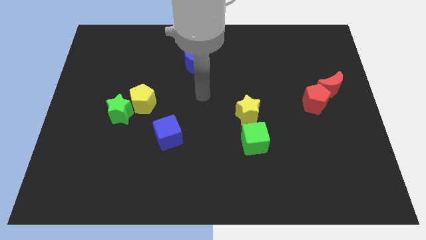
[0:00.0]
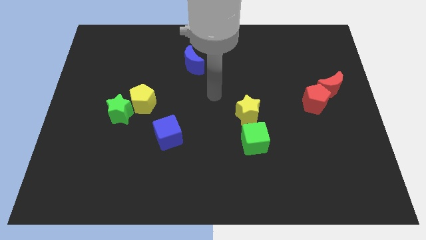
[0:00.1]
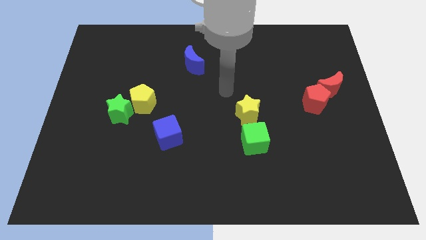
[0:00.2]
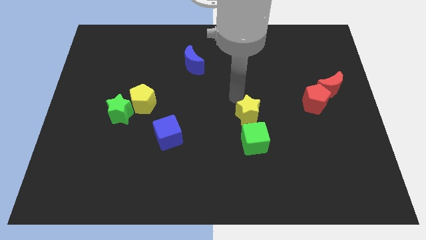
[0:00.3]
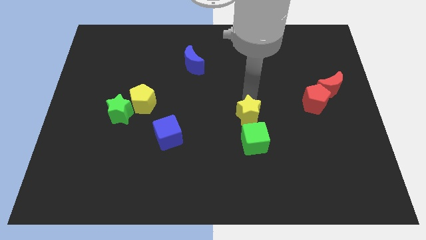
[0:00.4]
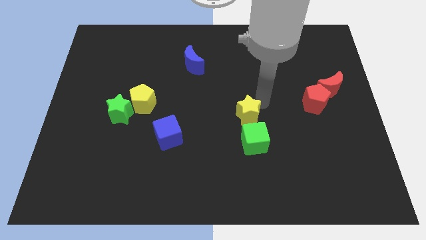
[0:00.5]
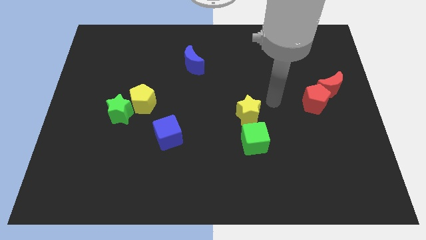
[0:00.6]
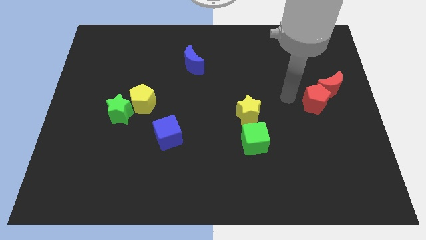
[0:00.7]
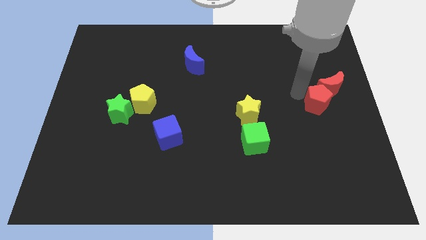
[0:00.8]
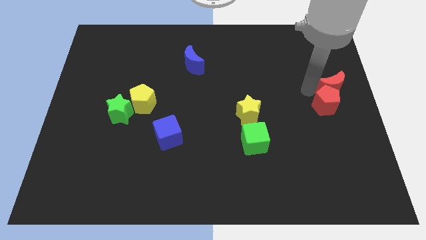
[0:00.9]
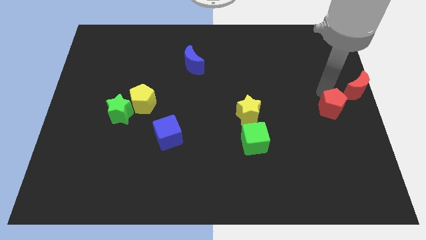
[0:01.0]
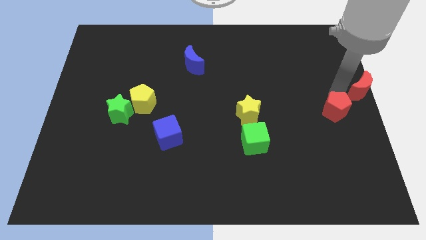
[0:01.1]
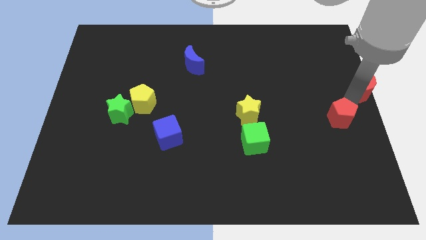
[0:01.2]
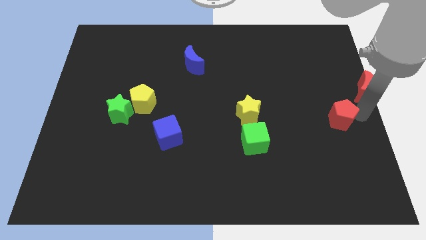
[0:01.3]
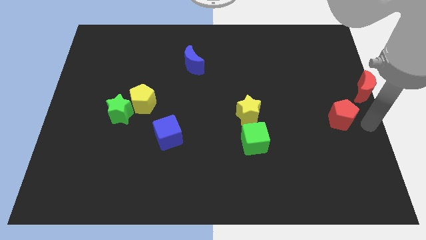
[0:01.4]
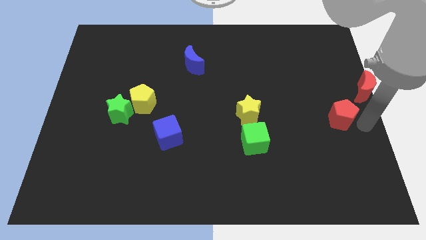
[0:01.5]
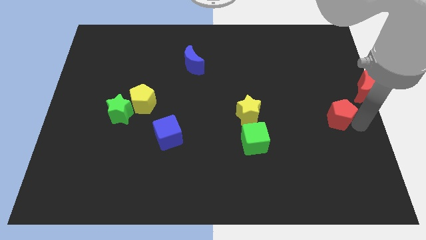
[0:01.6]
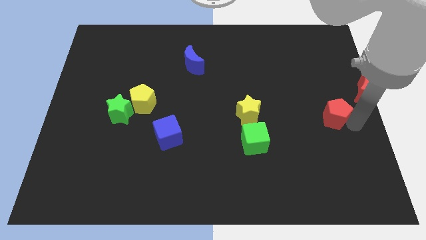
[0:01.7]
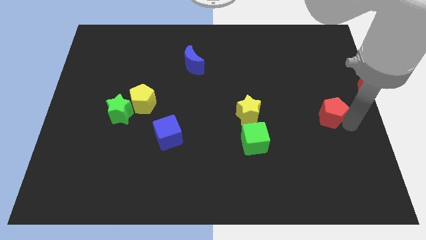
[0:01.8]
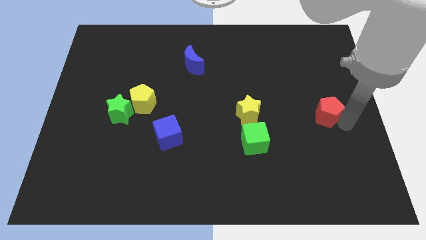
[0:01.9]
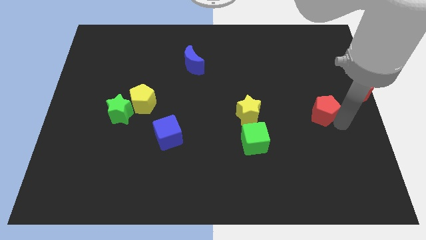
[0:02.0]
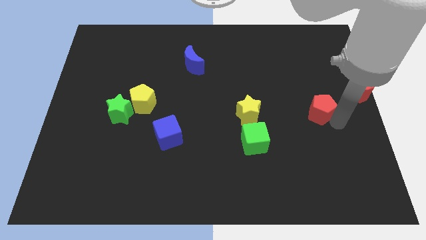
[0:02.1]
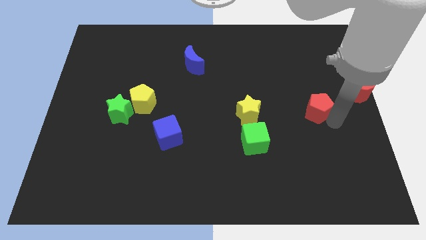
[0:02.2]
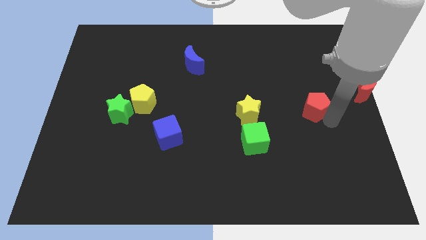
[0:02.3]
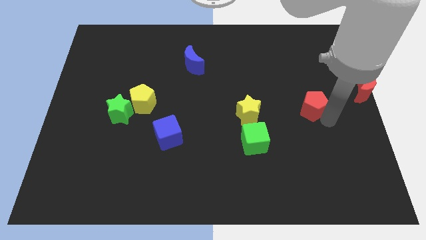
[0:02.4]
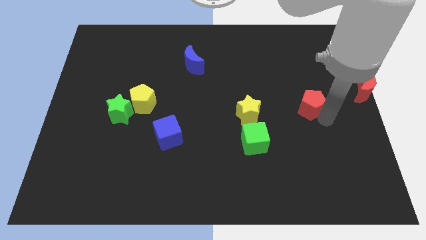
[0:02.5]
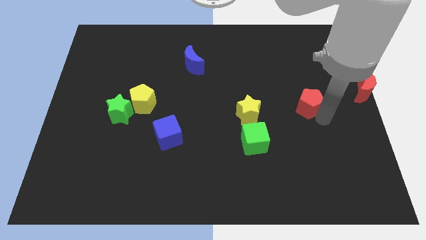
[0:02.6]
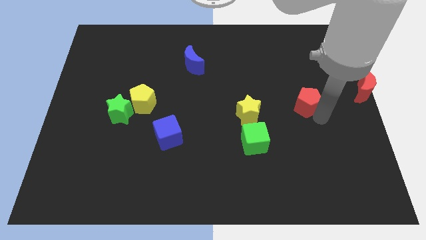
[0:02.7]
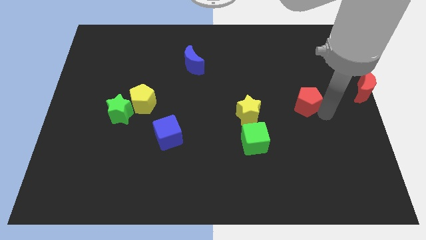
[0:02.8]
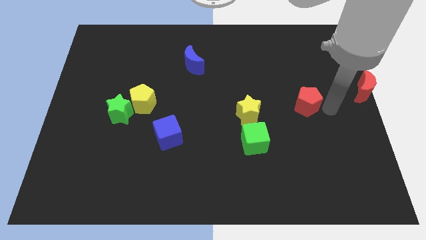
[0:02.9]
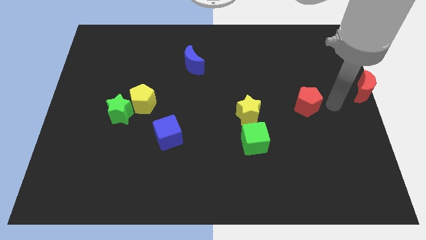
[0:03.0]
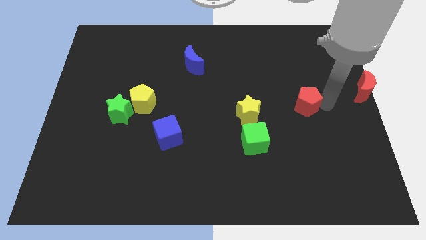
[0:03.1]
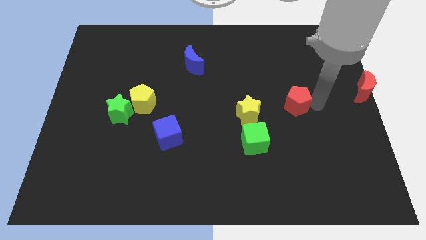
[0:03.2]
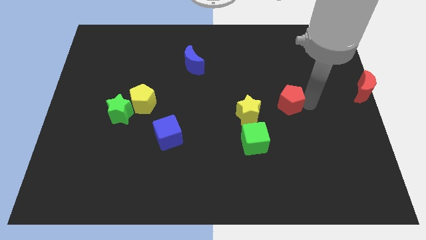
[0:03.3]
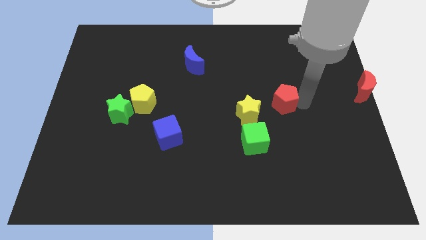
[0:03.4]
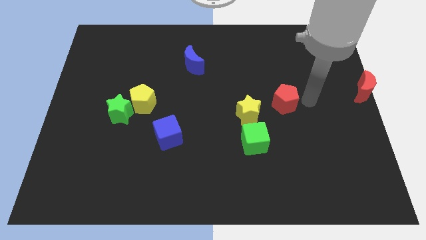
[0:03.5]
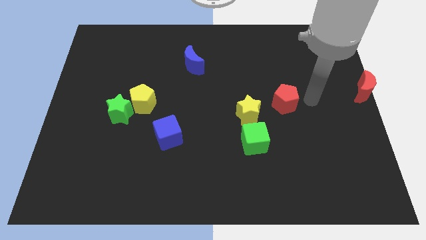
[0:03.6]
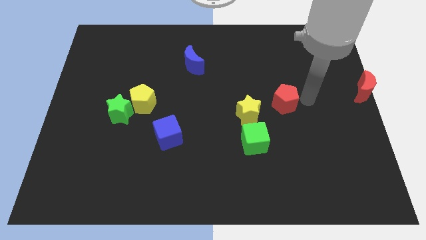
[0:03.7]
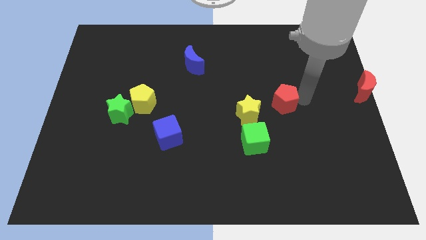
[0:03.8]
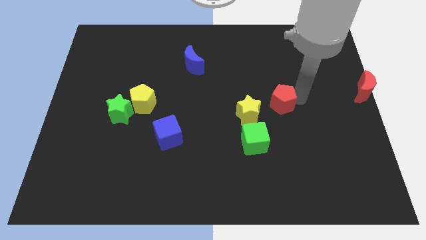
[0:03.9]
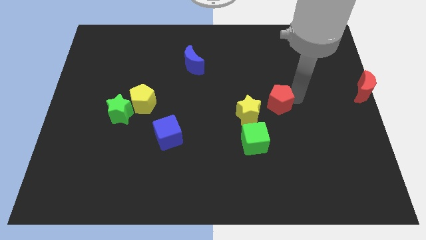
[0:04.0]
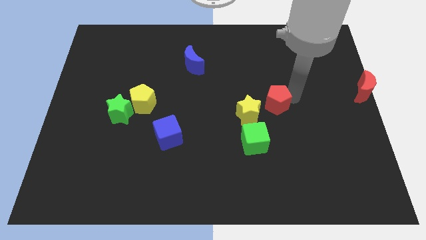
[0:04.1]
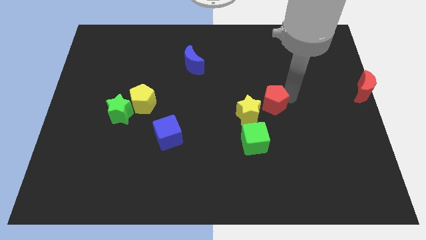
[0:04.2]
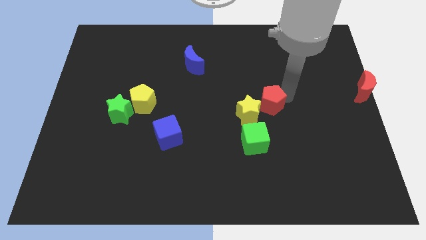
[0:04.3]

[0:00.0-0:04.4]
move the red pentagon above the green cube

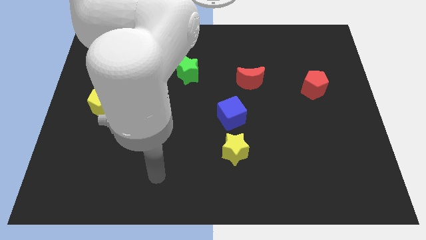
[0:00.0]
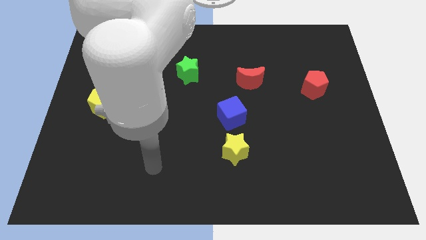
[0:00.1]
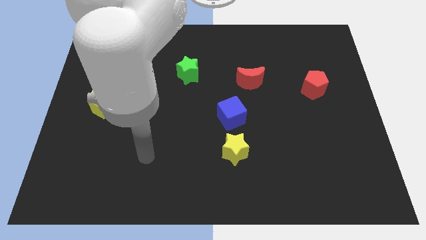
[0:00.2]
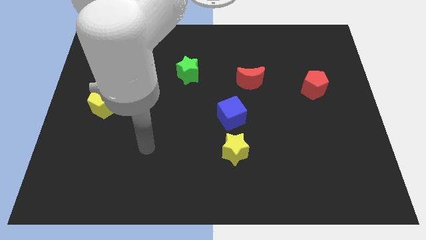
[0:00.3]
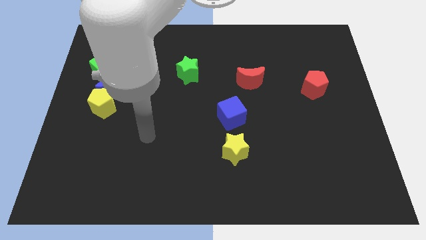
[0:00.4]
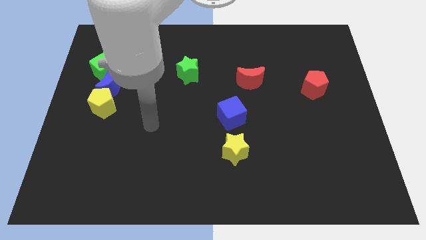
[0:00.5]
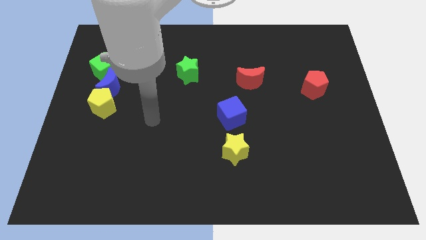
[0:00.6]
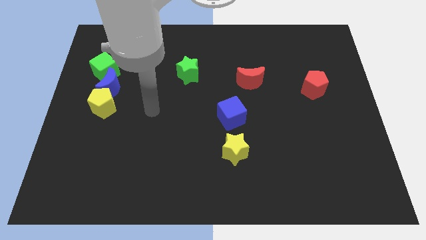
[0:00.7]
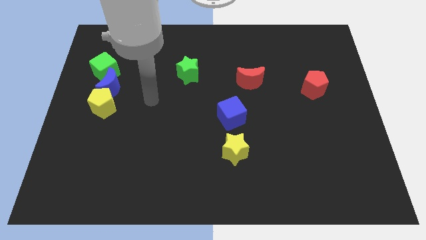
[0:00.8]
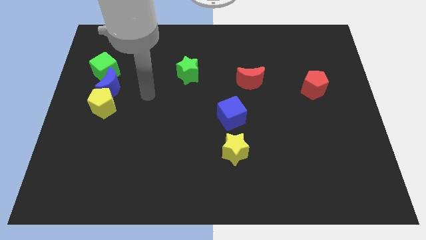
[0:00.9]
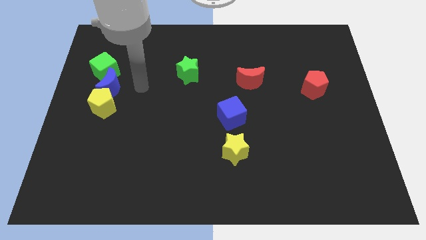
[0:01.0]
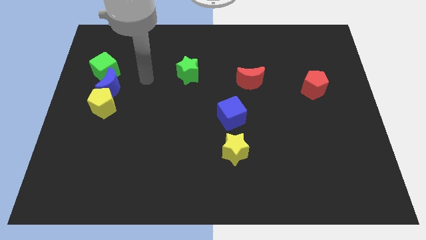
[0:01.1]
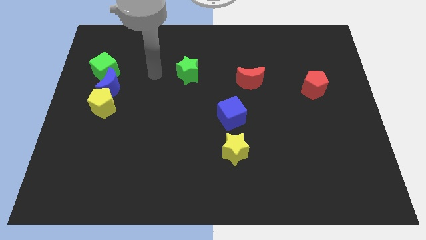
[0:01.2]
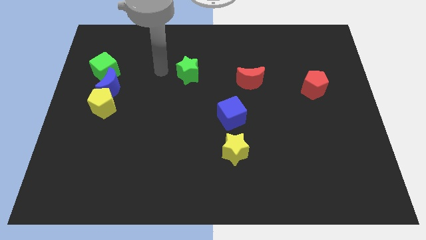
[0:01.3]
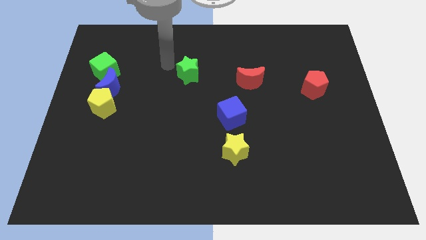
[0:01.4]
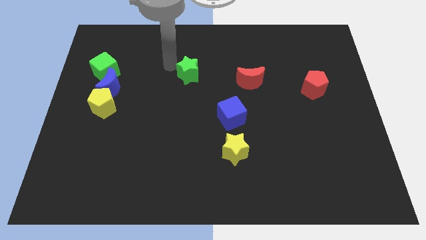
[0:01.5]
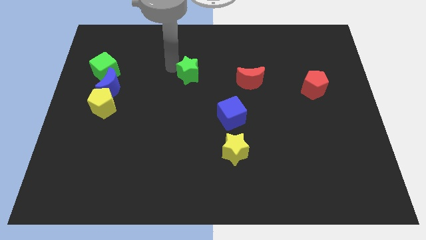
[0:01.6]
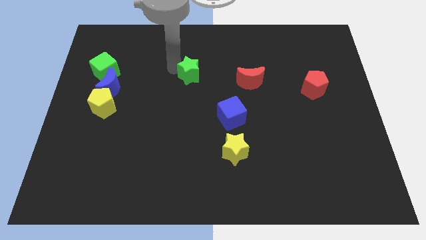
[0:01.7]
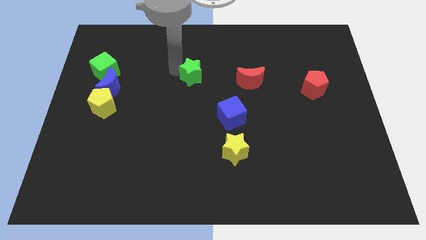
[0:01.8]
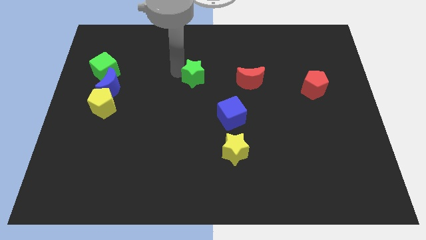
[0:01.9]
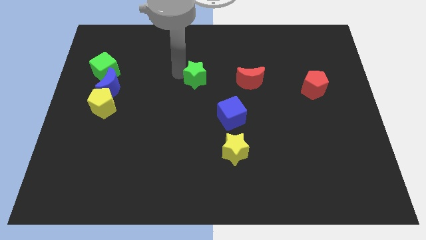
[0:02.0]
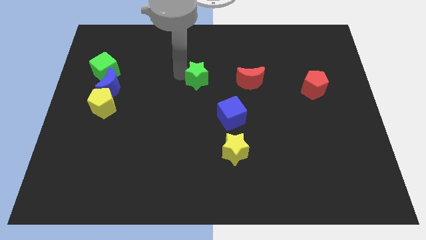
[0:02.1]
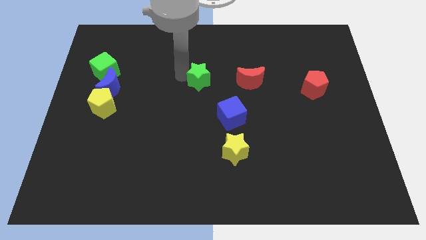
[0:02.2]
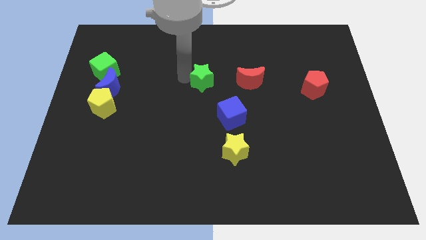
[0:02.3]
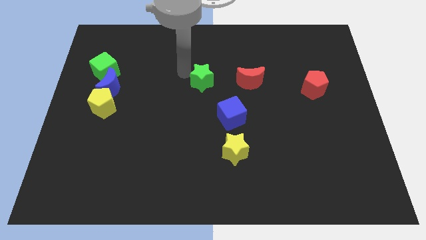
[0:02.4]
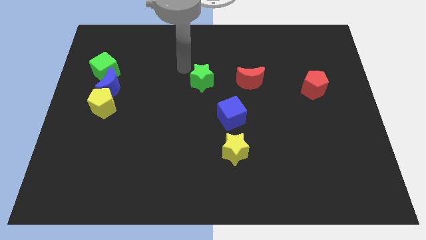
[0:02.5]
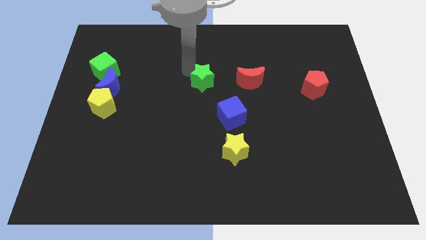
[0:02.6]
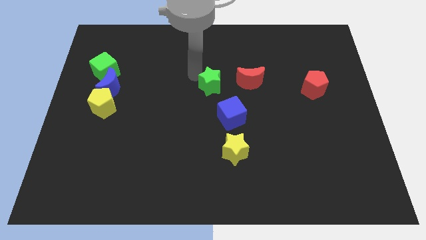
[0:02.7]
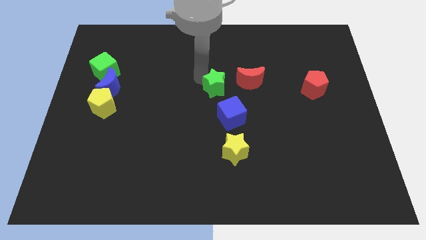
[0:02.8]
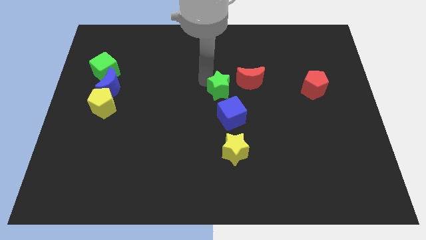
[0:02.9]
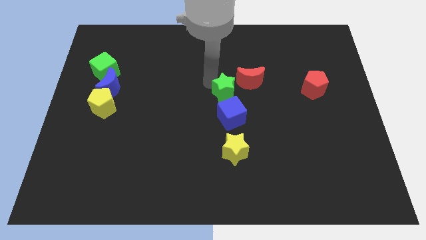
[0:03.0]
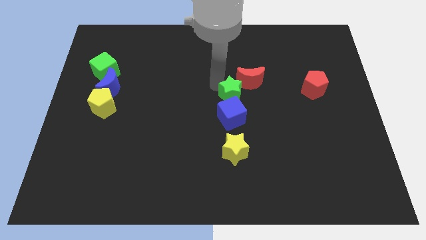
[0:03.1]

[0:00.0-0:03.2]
push the green star to the top of the yellow star

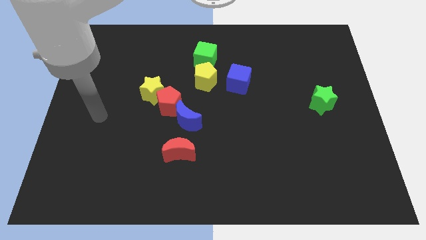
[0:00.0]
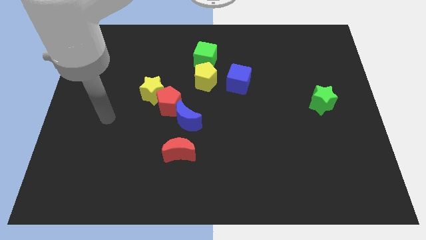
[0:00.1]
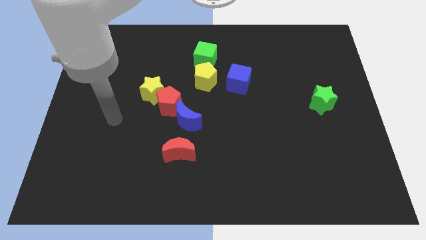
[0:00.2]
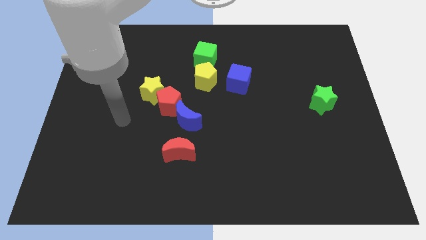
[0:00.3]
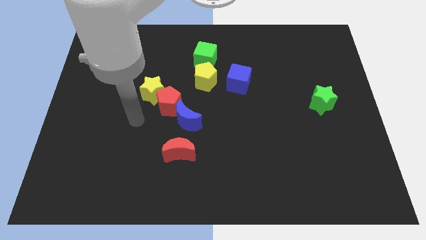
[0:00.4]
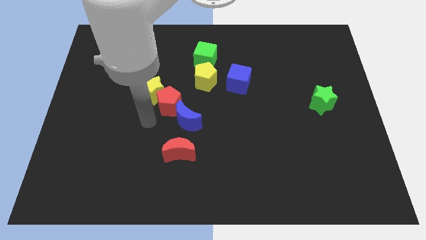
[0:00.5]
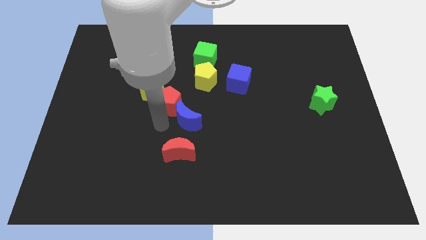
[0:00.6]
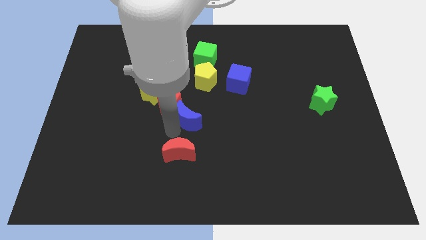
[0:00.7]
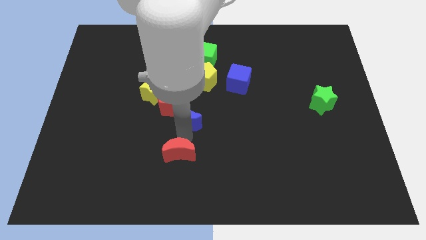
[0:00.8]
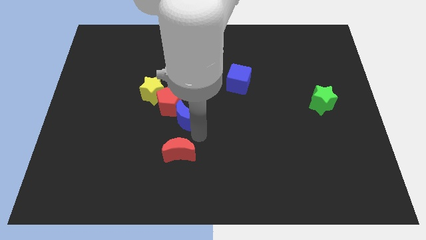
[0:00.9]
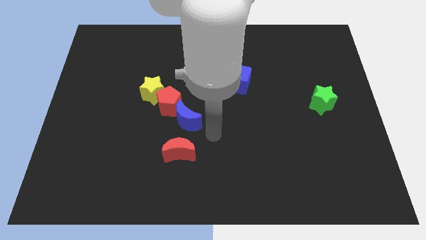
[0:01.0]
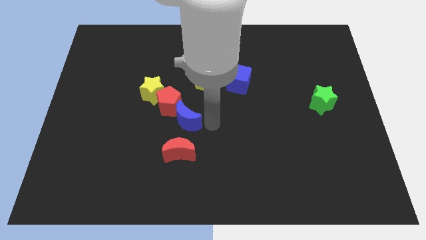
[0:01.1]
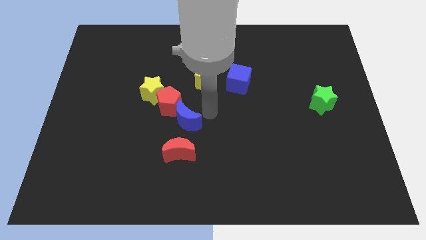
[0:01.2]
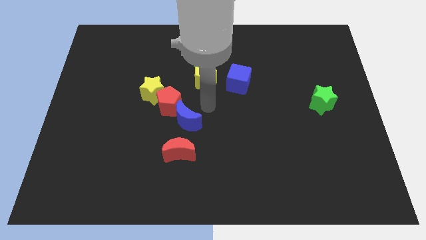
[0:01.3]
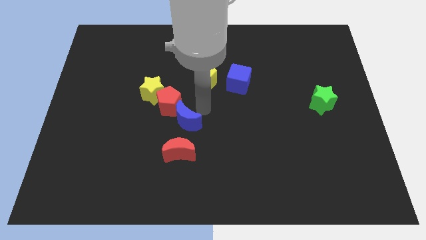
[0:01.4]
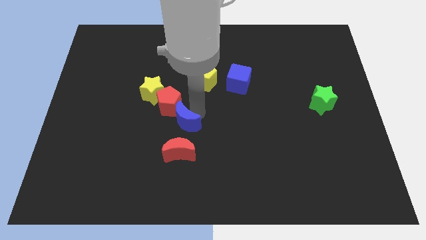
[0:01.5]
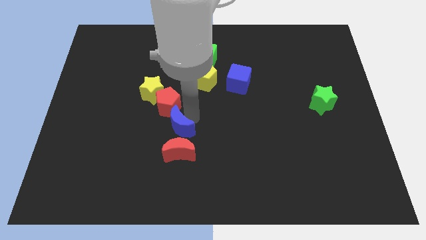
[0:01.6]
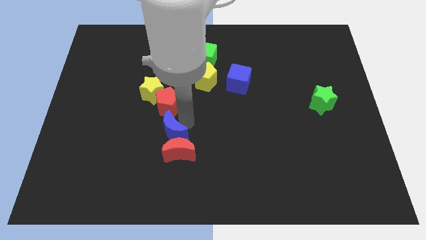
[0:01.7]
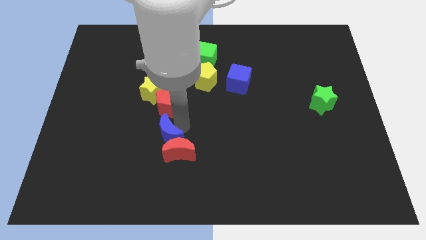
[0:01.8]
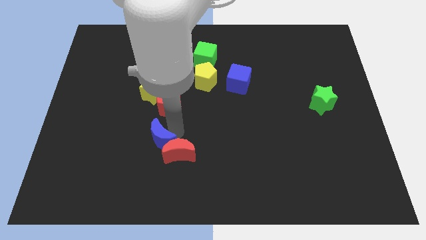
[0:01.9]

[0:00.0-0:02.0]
push the blue moon just left of the red moon
